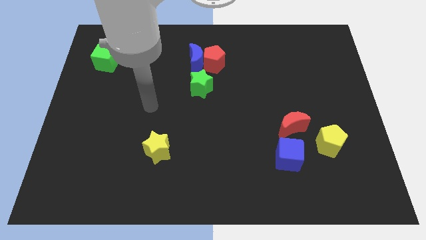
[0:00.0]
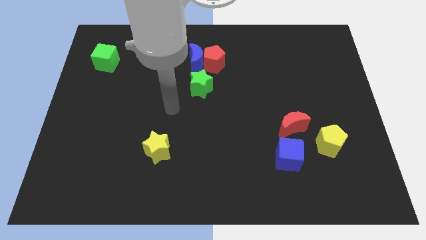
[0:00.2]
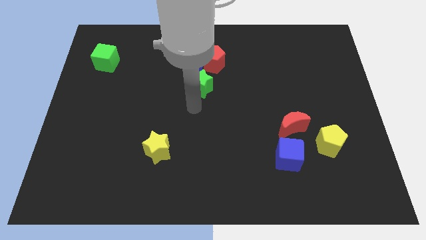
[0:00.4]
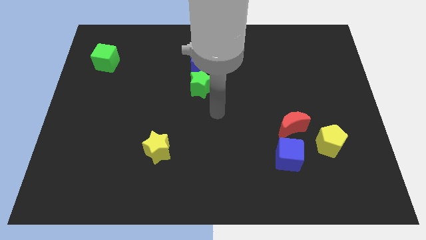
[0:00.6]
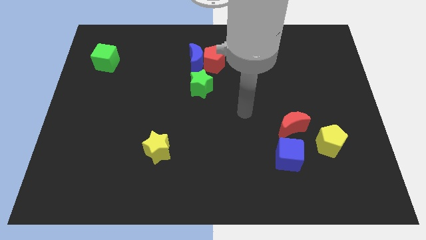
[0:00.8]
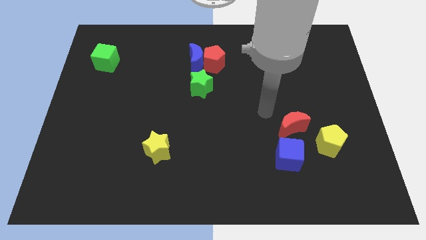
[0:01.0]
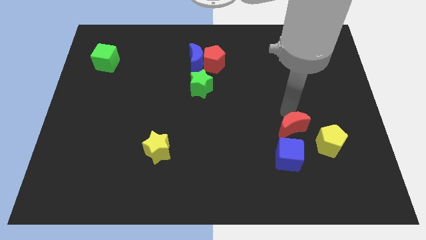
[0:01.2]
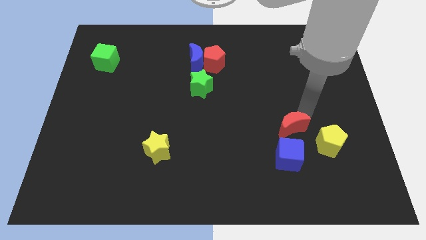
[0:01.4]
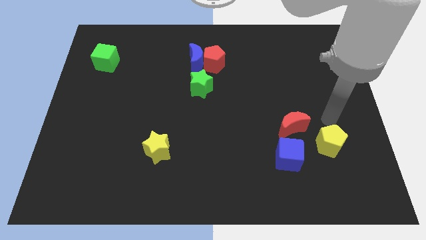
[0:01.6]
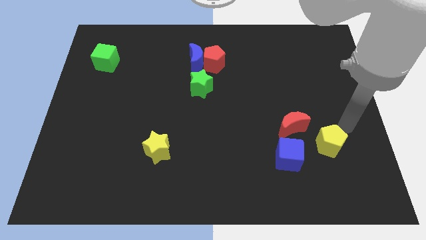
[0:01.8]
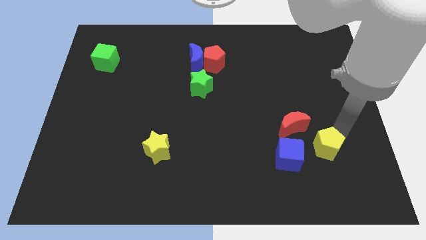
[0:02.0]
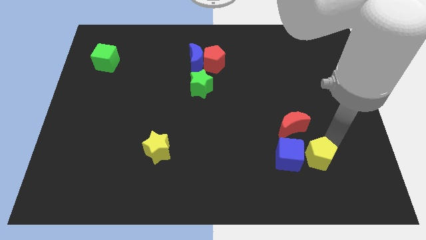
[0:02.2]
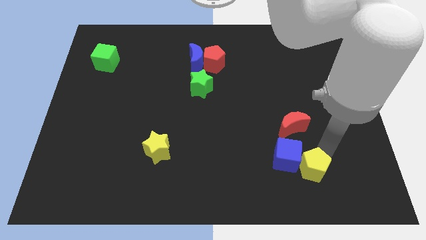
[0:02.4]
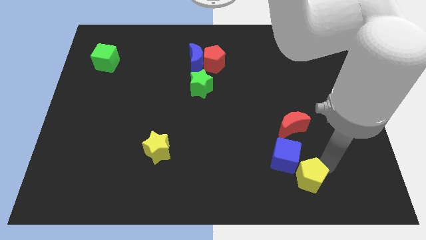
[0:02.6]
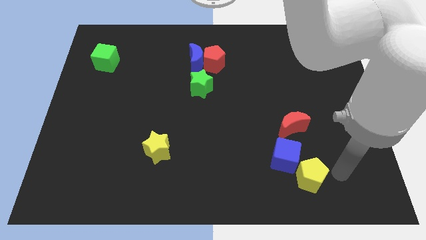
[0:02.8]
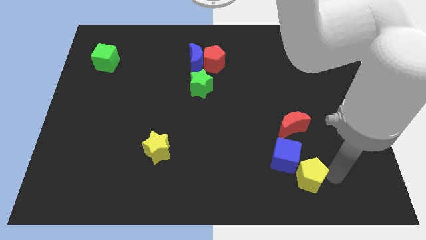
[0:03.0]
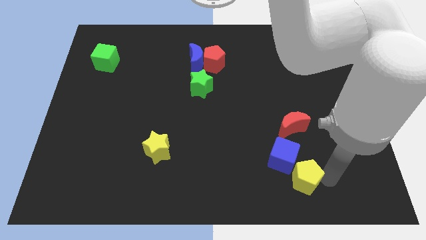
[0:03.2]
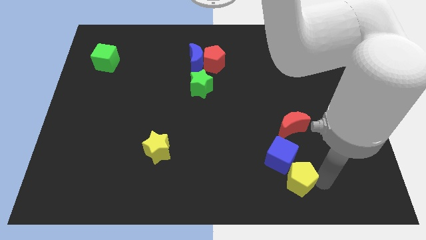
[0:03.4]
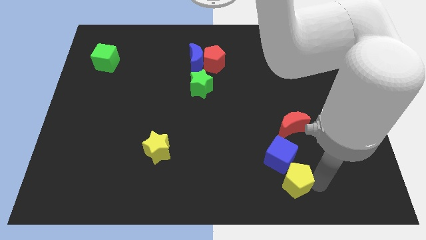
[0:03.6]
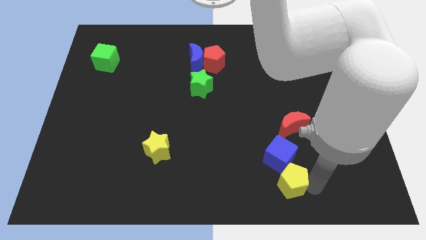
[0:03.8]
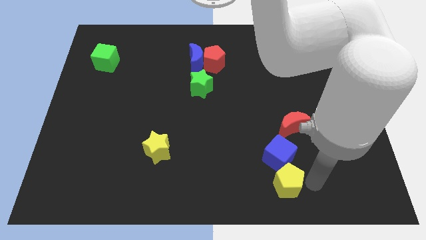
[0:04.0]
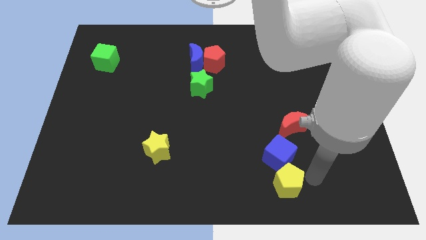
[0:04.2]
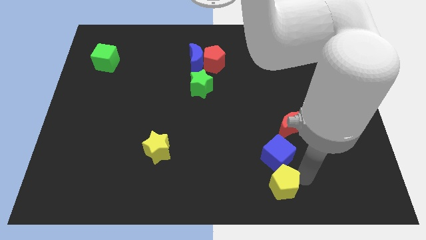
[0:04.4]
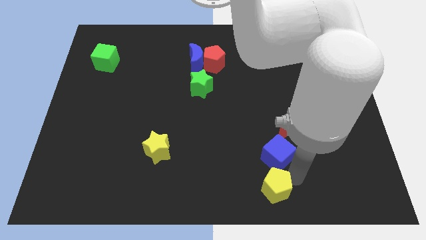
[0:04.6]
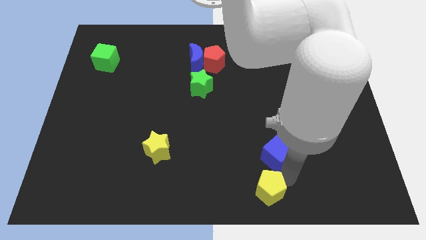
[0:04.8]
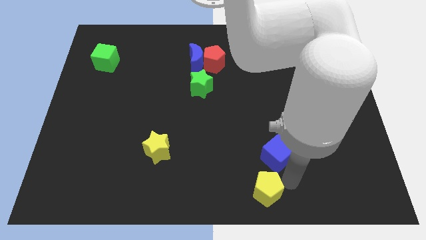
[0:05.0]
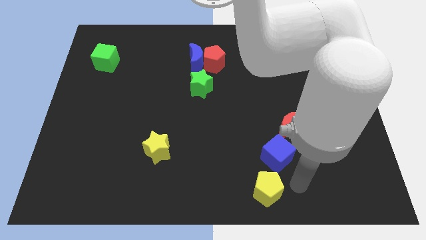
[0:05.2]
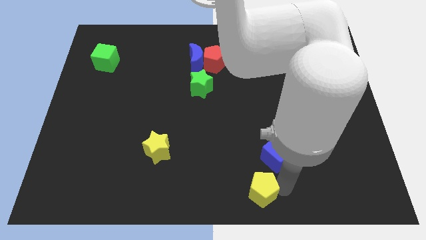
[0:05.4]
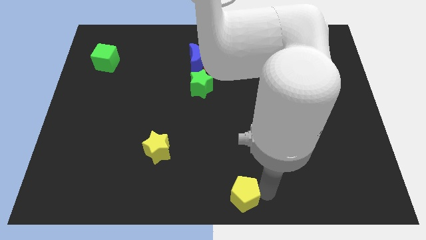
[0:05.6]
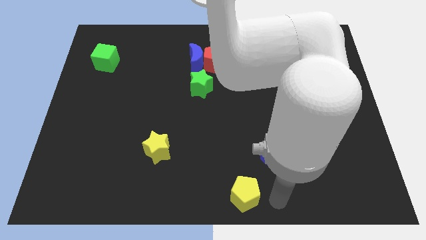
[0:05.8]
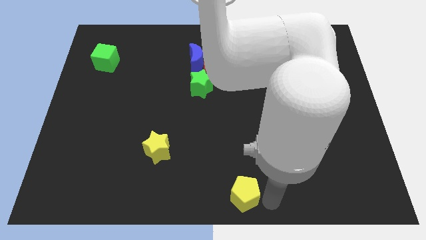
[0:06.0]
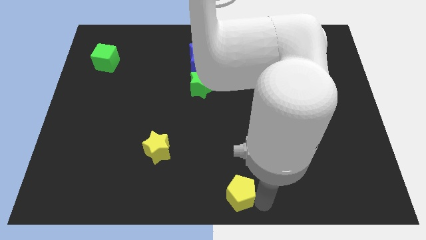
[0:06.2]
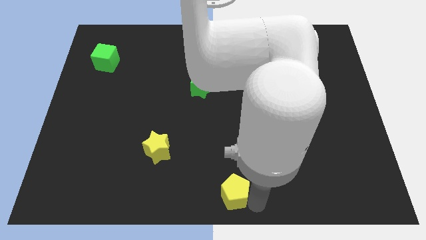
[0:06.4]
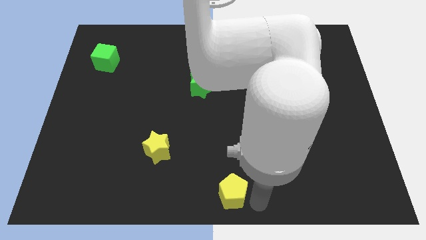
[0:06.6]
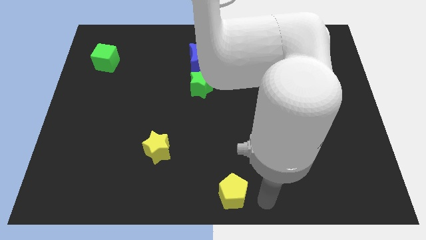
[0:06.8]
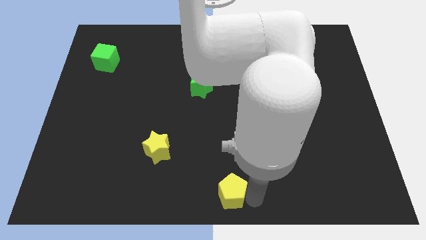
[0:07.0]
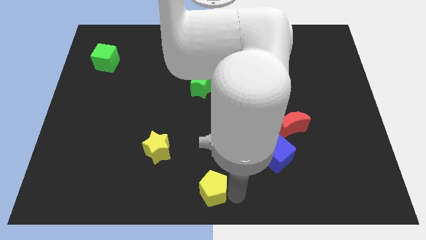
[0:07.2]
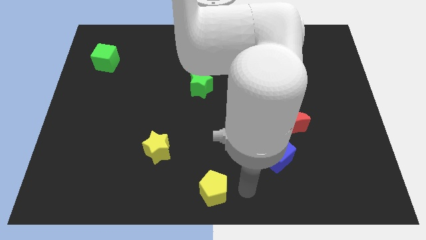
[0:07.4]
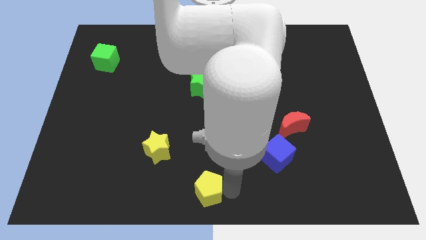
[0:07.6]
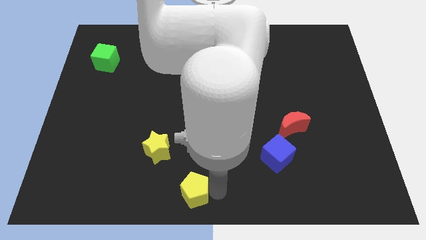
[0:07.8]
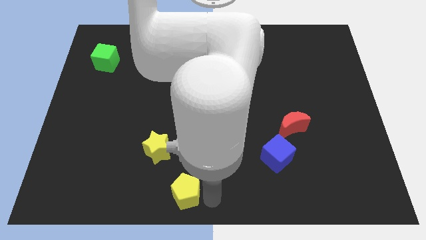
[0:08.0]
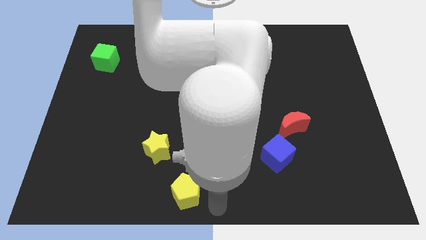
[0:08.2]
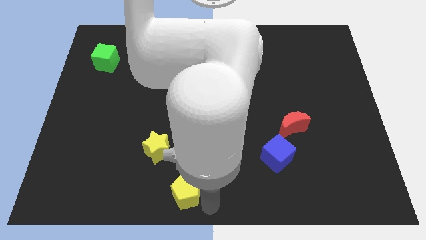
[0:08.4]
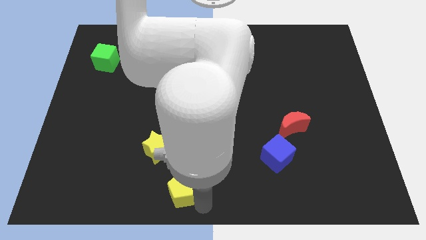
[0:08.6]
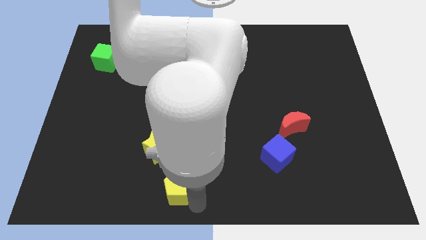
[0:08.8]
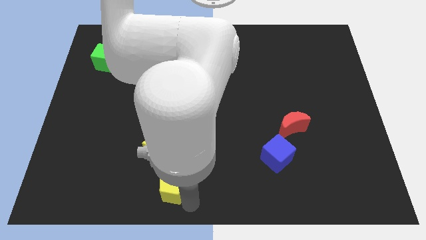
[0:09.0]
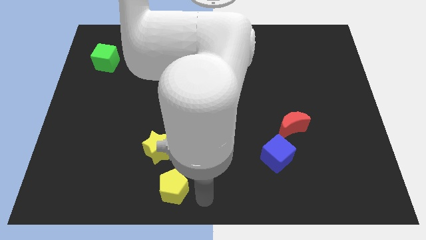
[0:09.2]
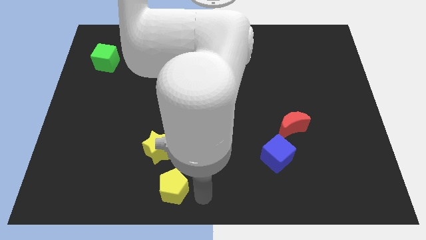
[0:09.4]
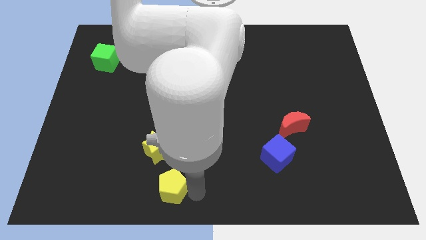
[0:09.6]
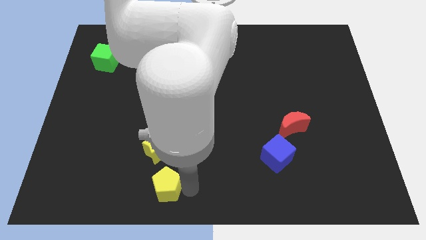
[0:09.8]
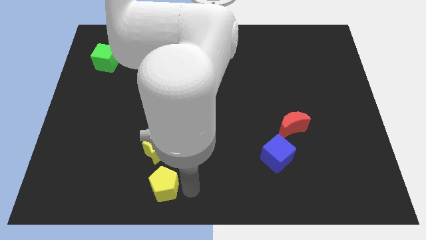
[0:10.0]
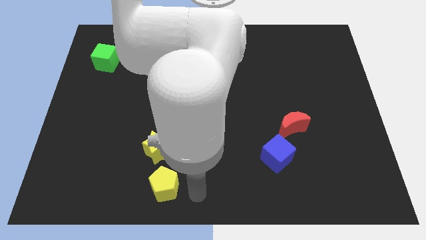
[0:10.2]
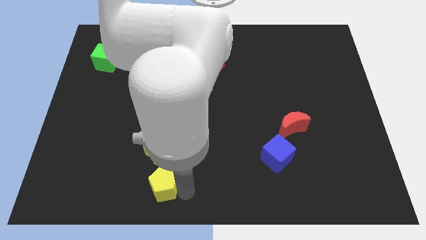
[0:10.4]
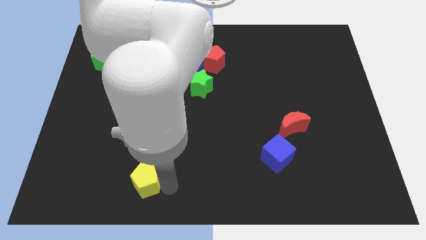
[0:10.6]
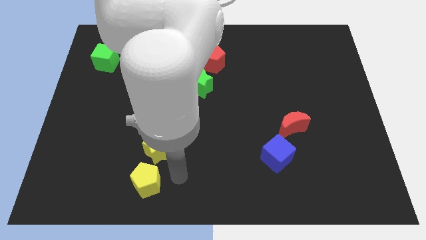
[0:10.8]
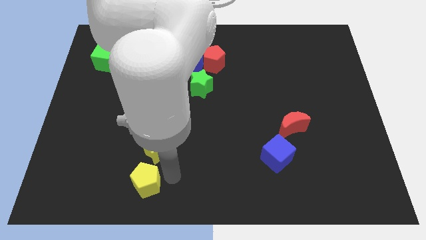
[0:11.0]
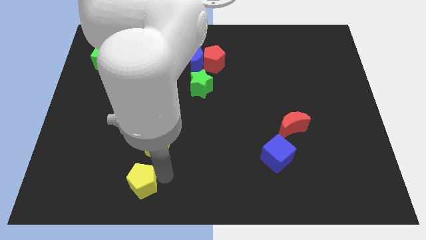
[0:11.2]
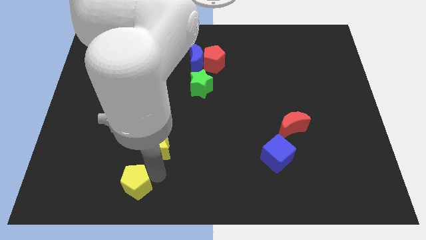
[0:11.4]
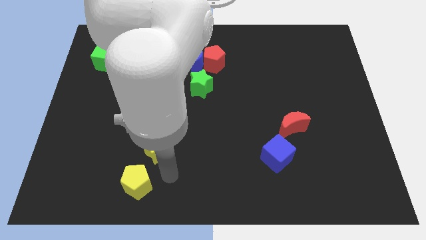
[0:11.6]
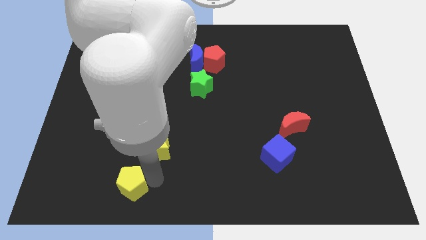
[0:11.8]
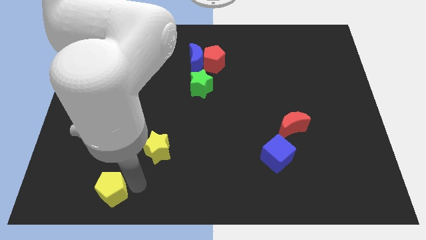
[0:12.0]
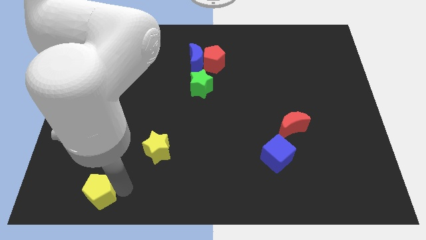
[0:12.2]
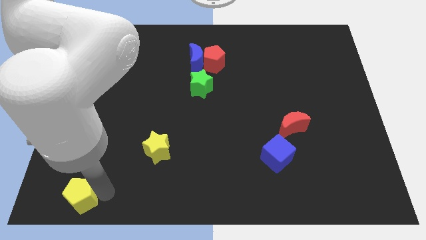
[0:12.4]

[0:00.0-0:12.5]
slide the yellow pentagon to the lower left corner

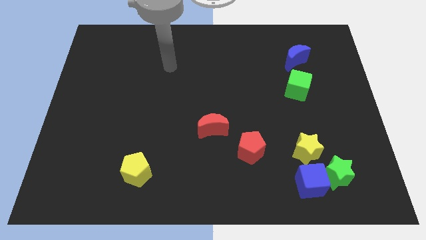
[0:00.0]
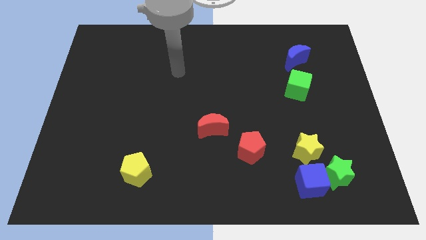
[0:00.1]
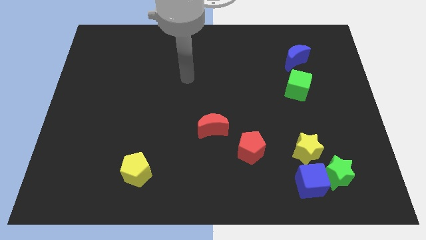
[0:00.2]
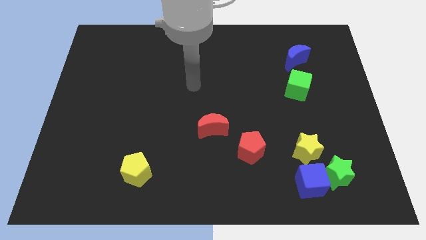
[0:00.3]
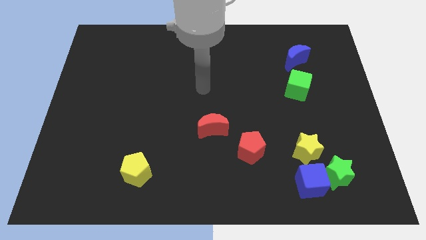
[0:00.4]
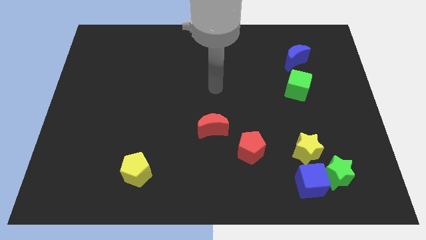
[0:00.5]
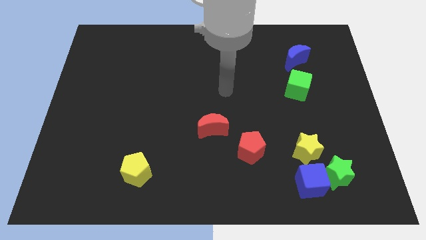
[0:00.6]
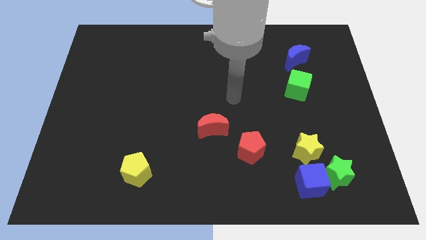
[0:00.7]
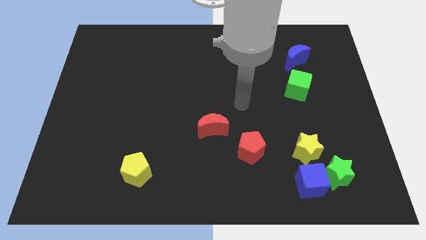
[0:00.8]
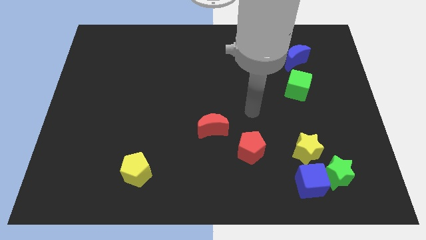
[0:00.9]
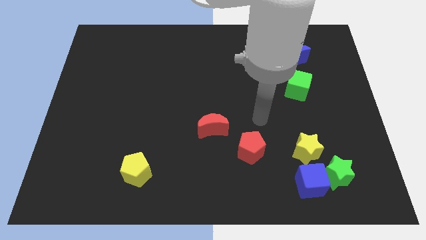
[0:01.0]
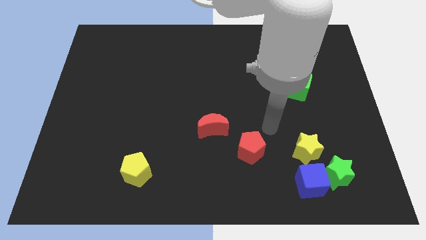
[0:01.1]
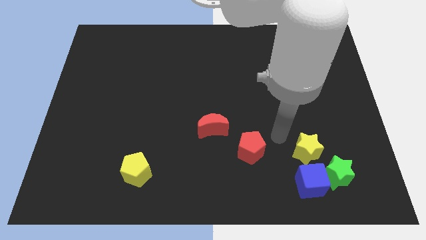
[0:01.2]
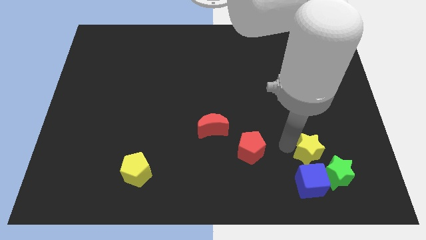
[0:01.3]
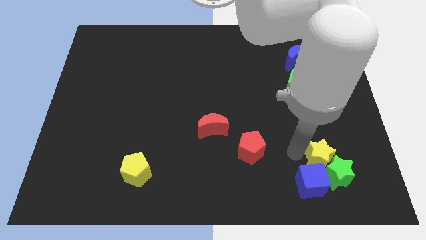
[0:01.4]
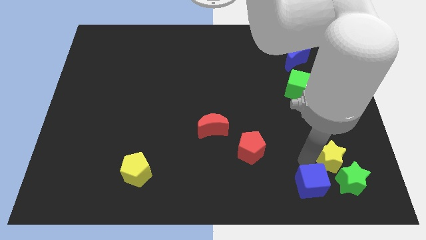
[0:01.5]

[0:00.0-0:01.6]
move the green star to the lower right corner
